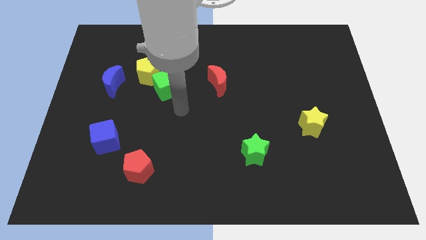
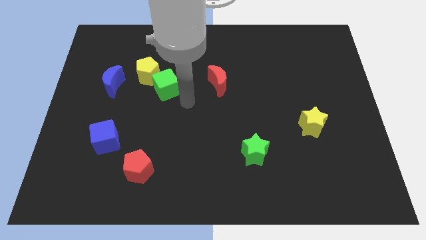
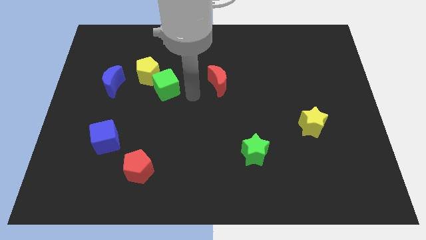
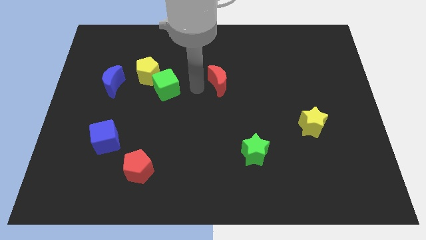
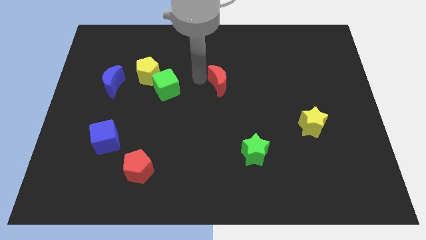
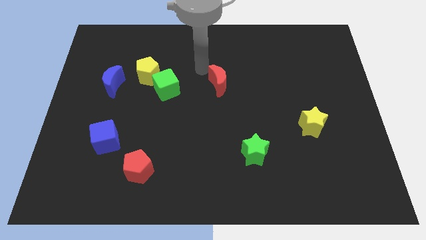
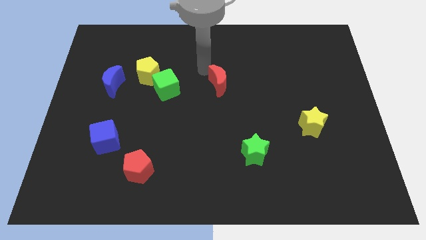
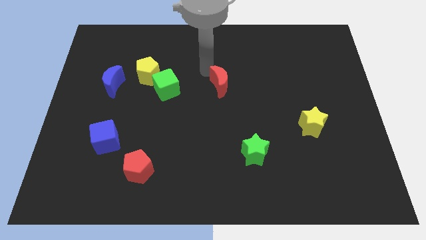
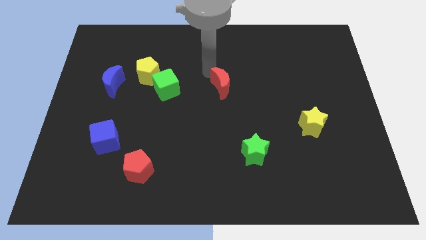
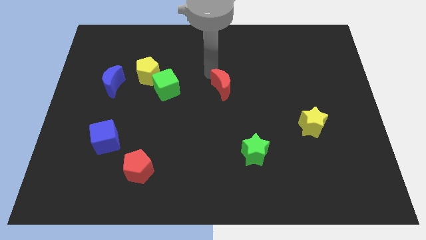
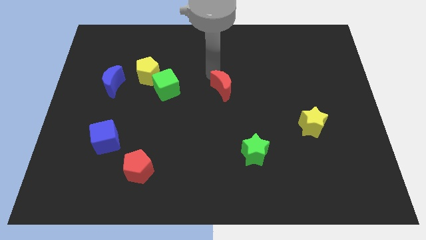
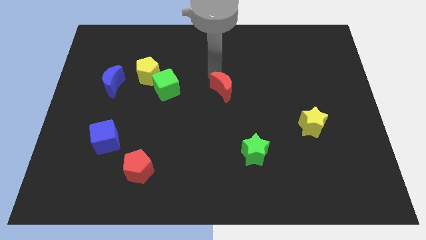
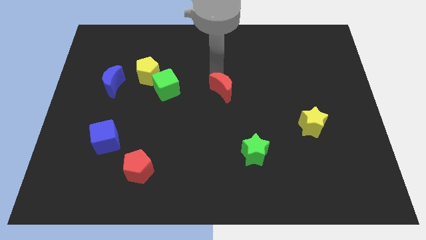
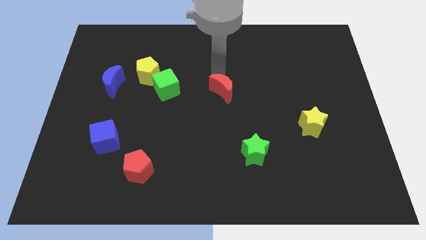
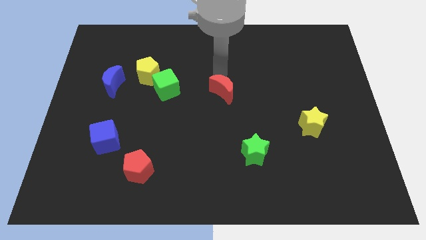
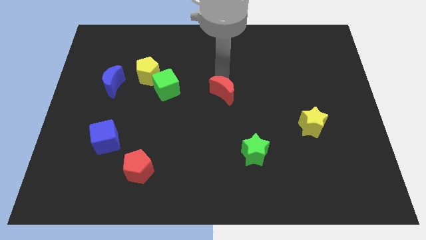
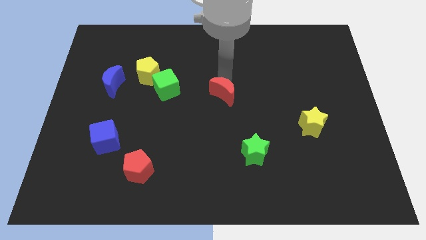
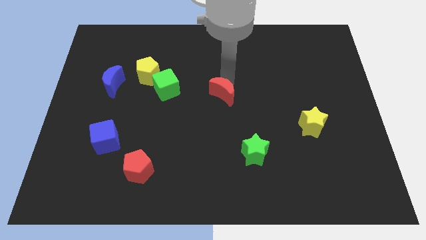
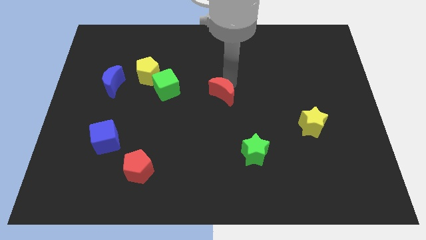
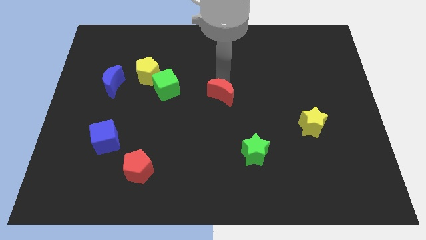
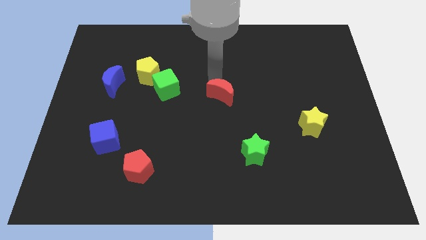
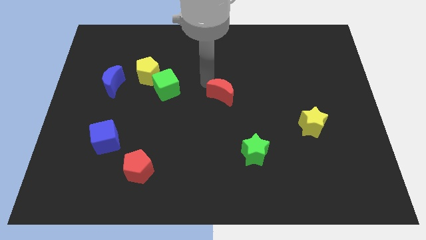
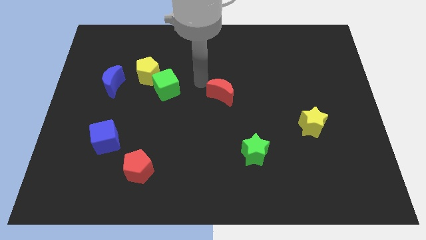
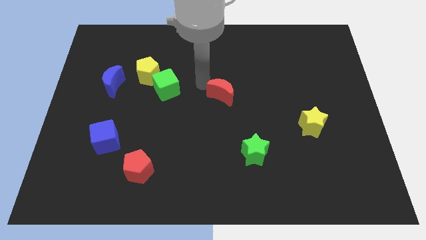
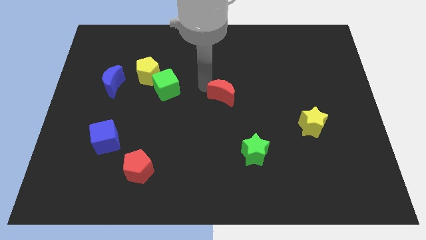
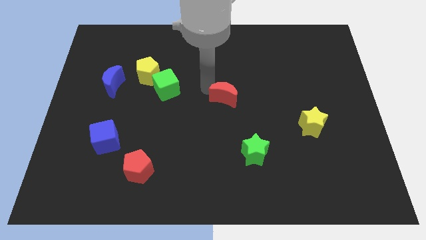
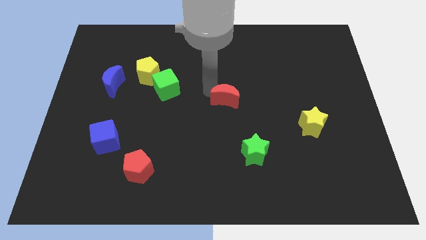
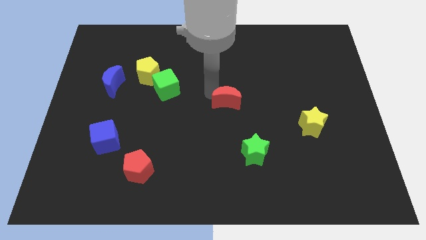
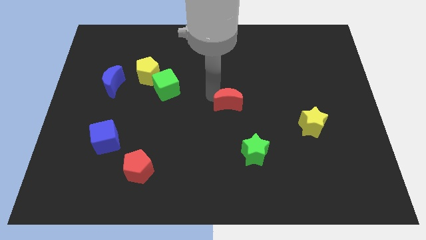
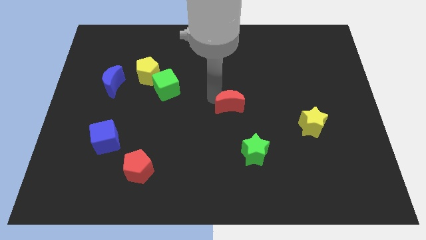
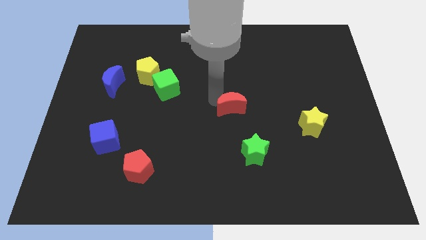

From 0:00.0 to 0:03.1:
slightly push the red moon downwards and to the right diagonally

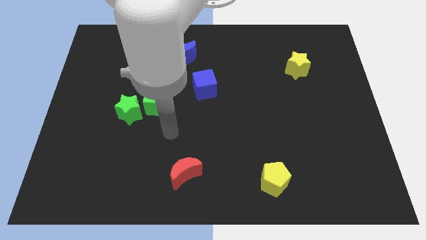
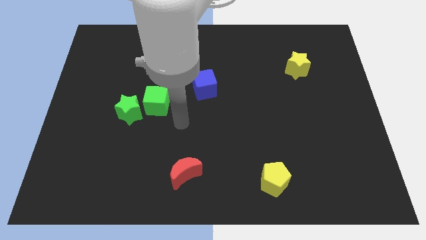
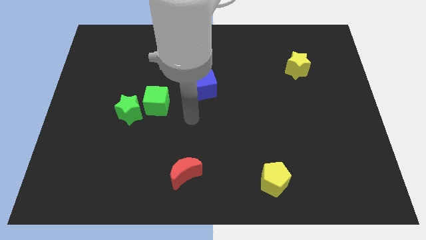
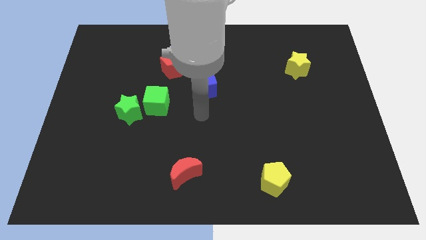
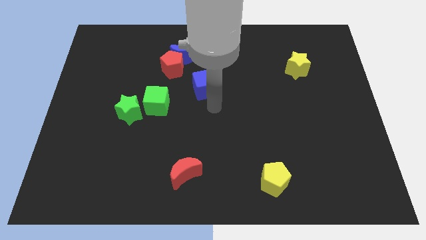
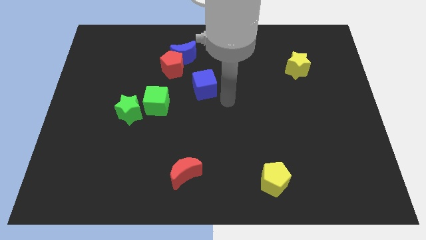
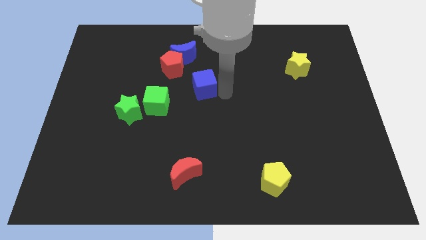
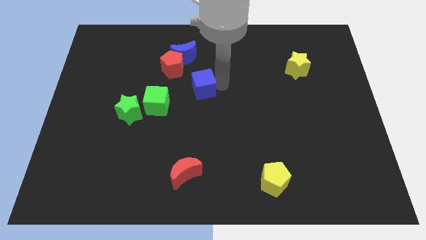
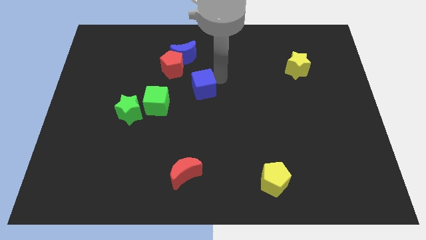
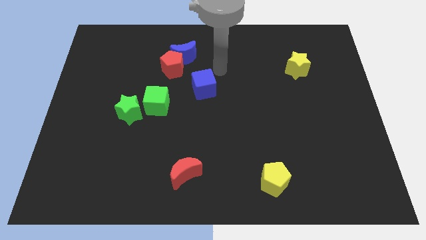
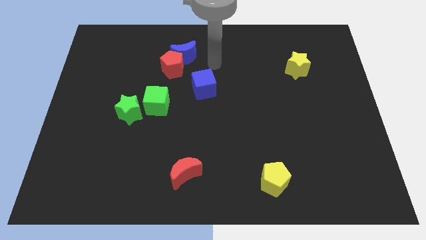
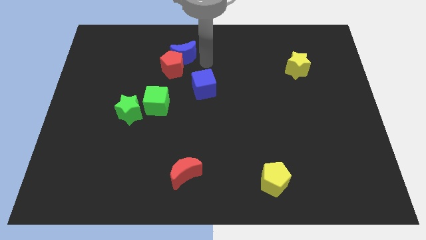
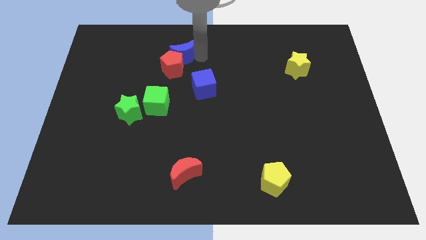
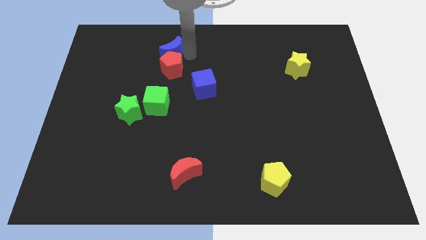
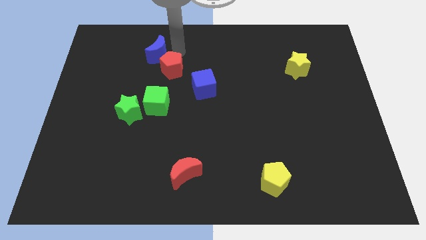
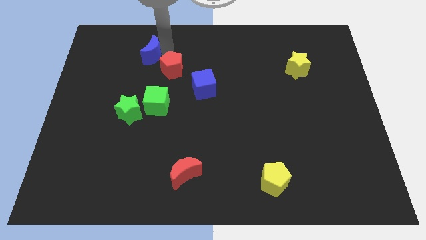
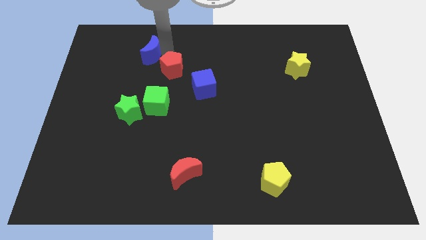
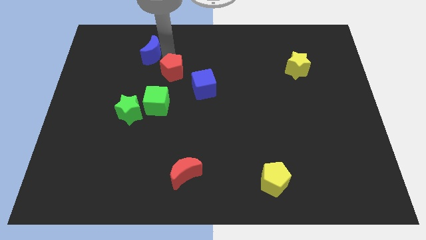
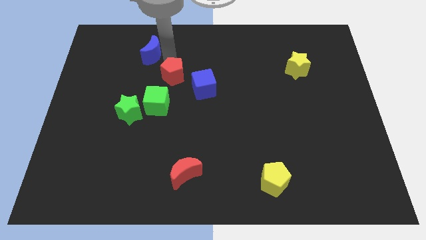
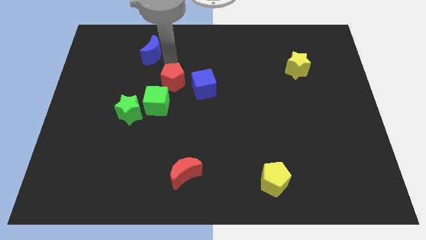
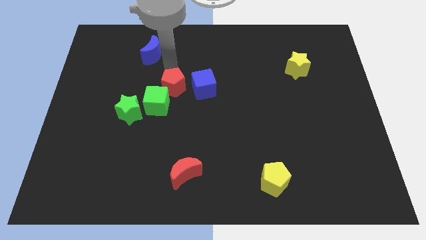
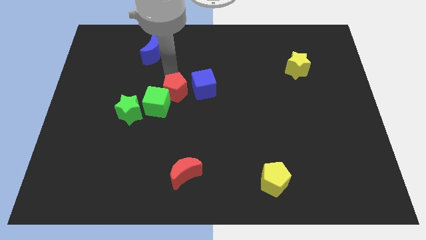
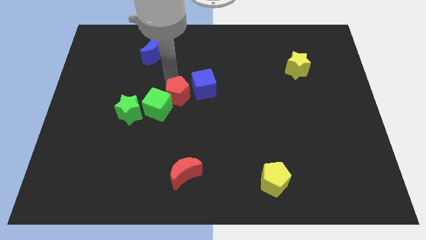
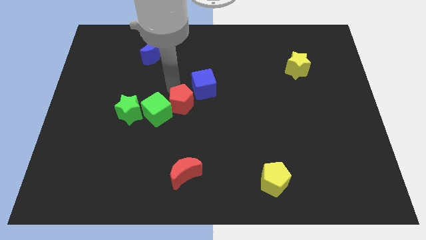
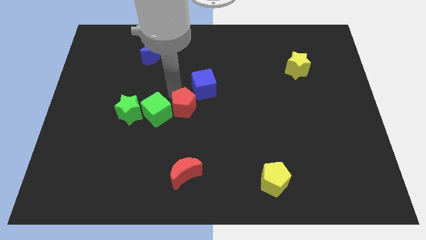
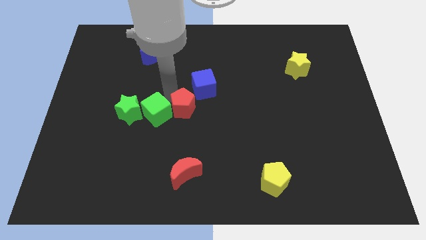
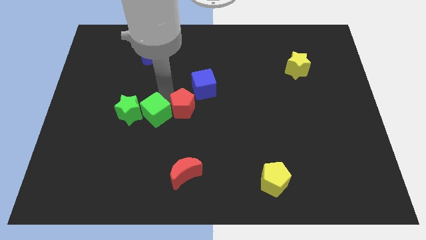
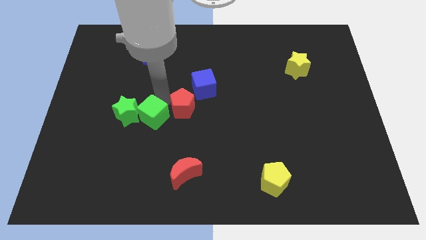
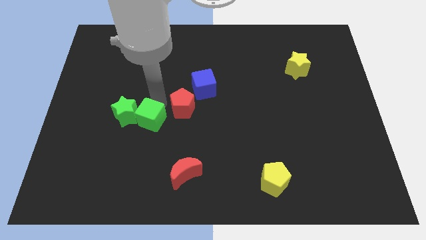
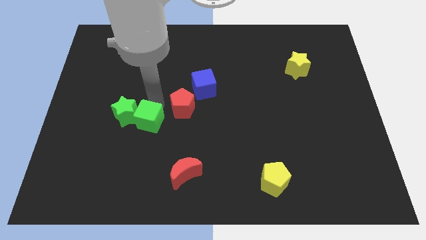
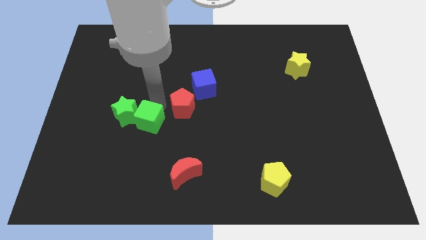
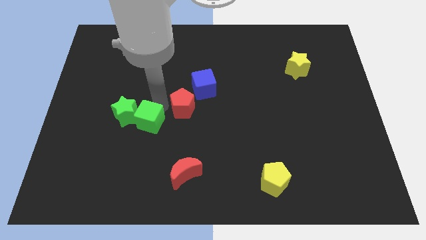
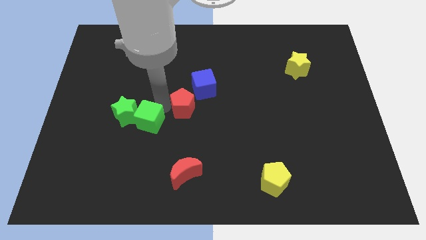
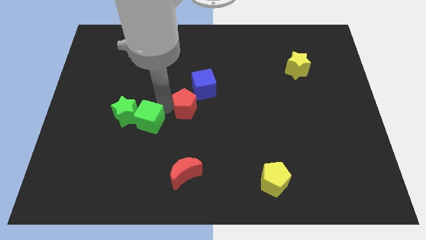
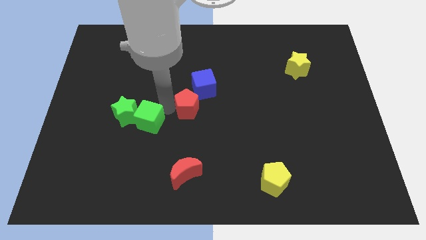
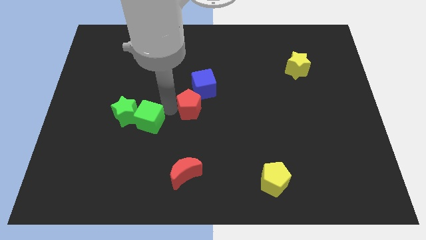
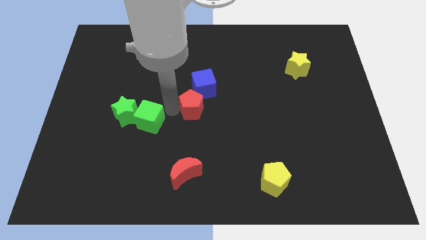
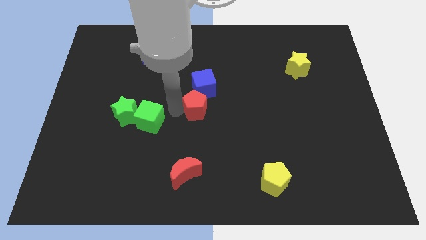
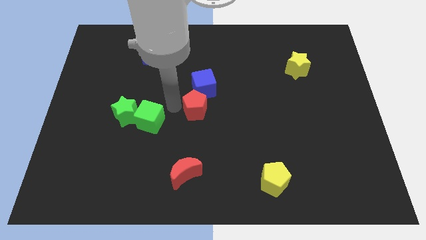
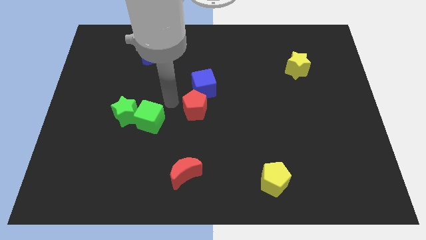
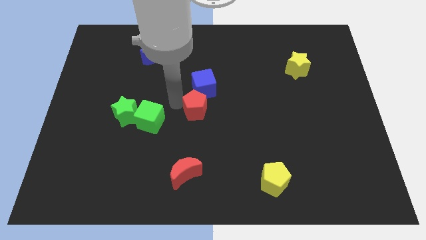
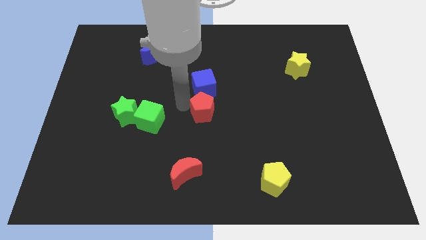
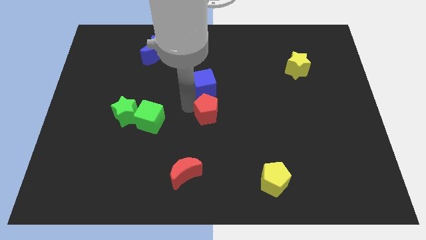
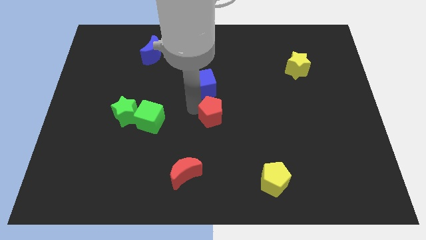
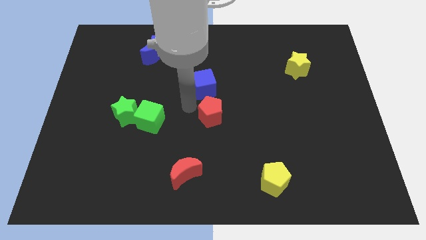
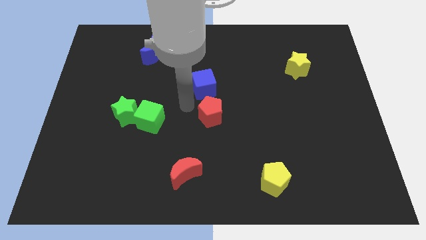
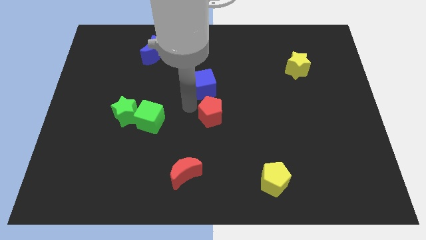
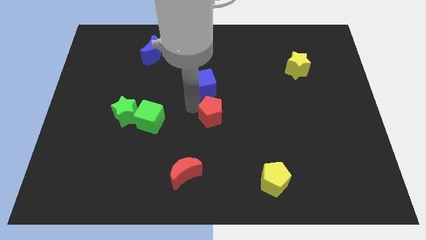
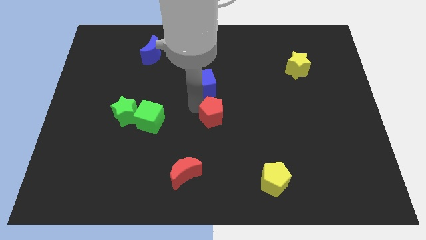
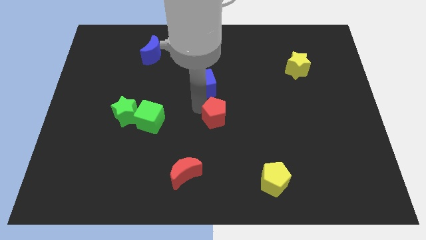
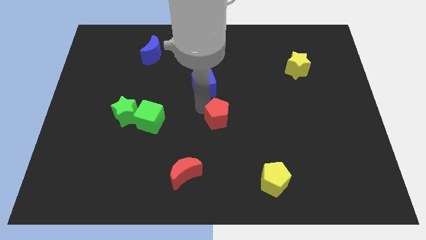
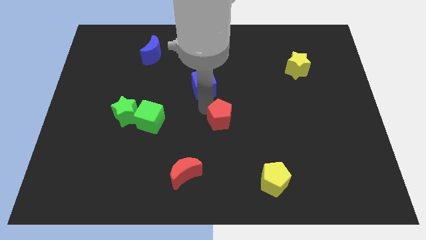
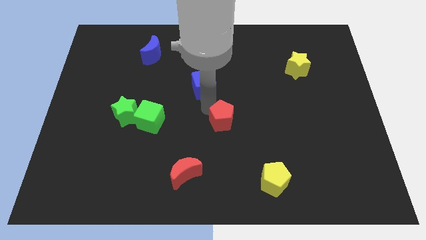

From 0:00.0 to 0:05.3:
slide the red pentagon down and then to the right
